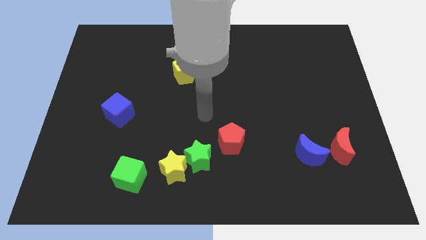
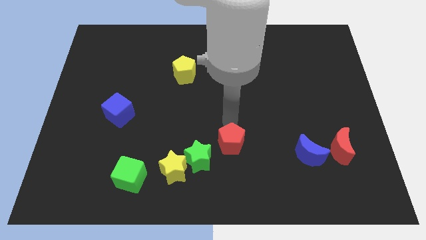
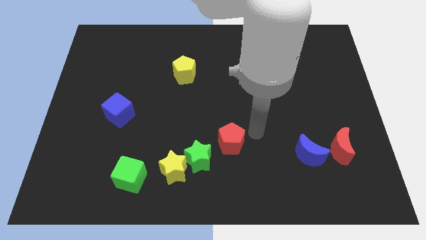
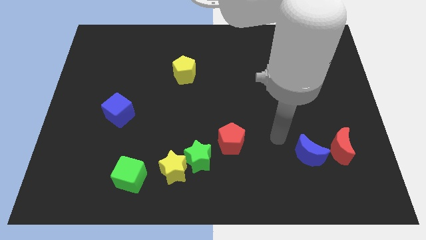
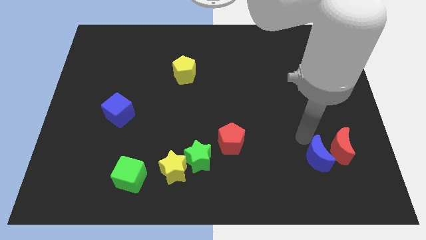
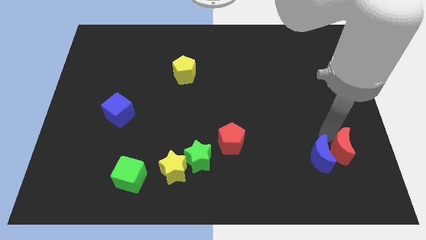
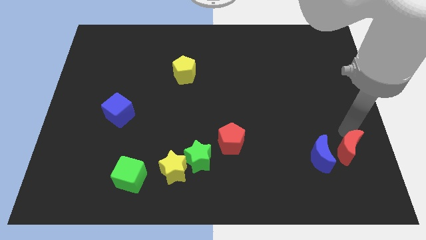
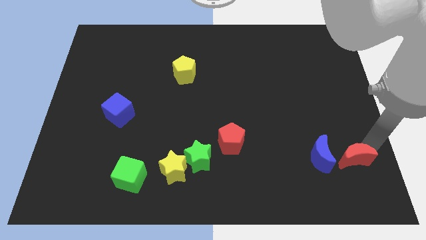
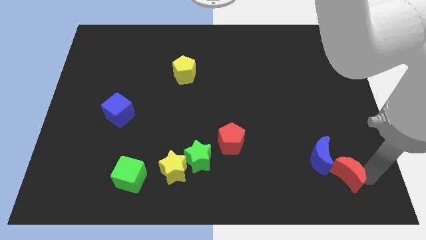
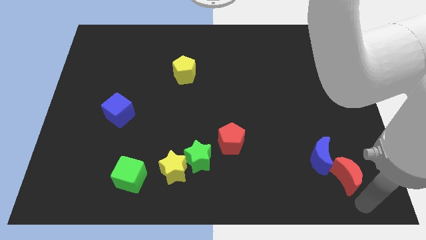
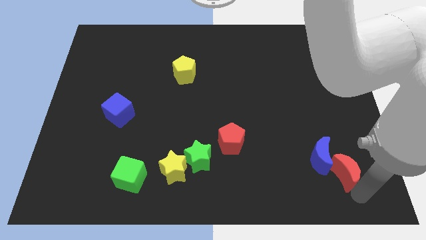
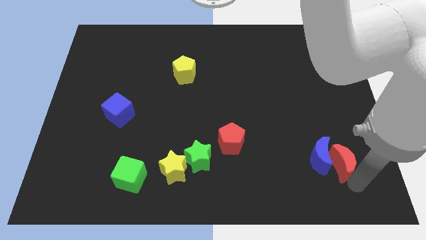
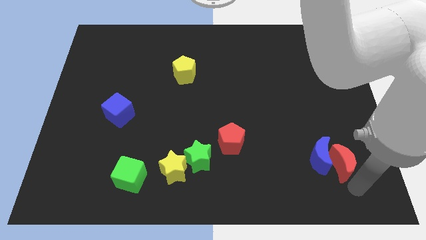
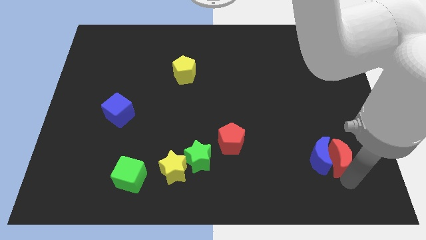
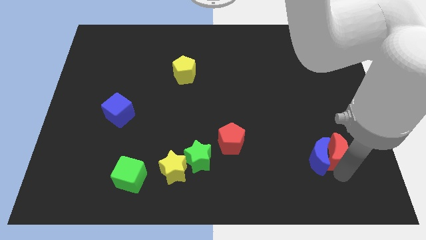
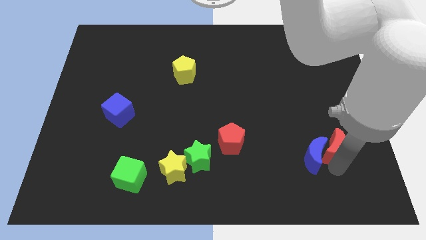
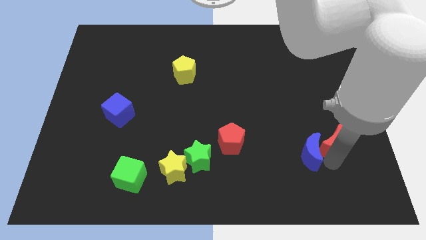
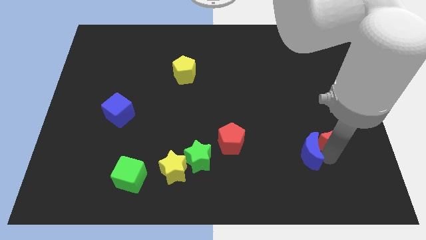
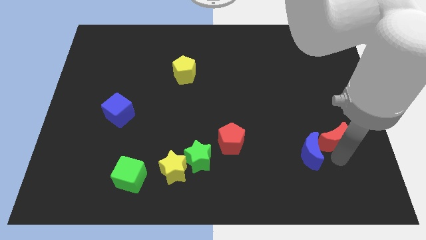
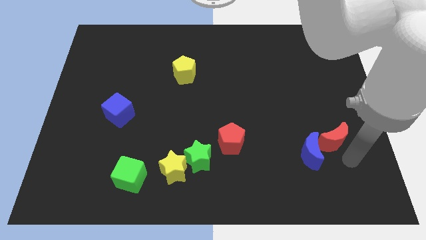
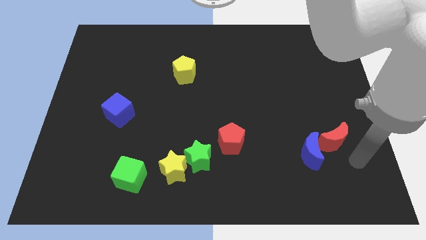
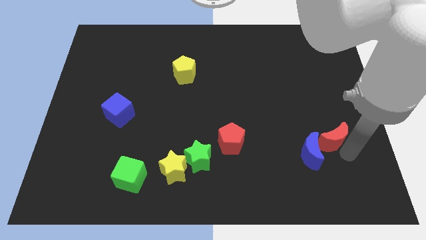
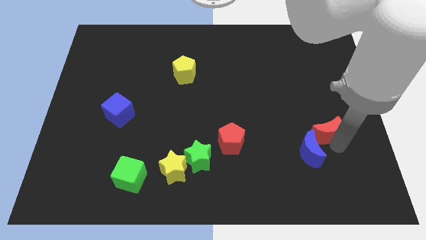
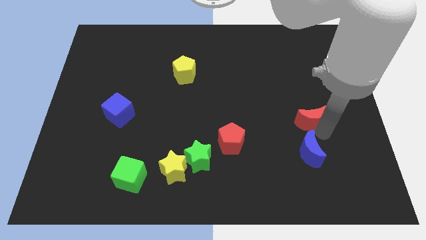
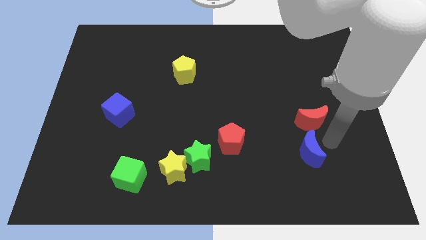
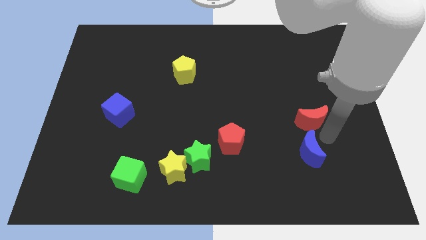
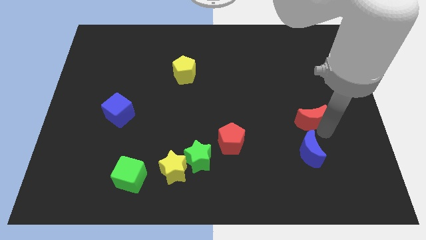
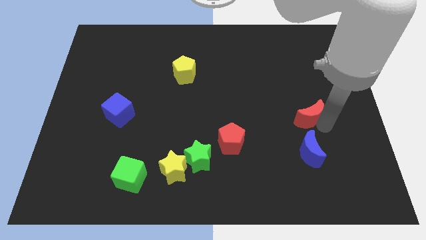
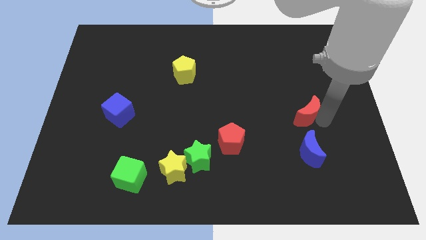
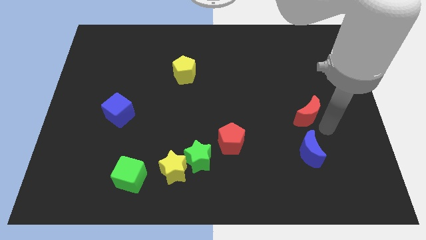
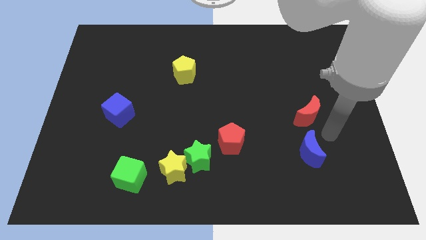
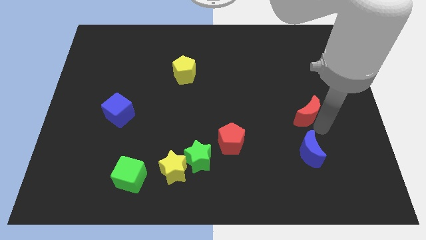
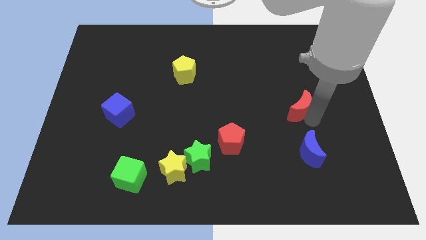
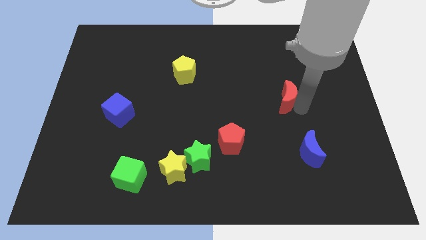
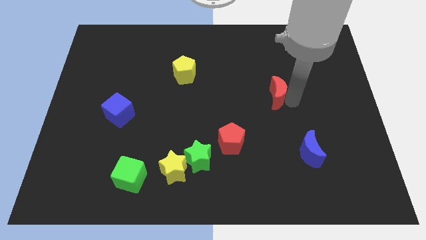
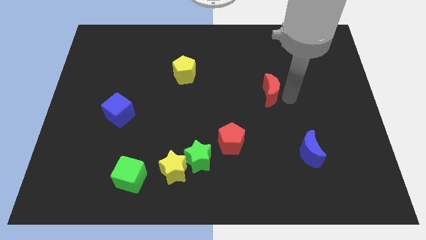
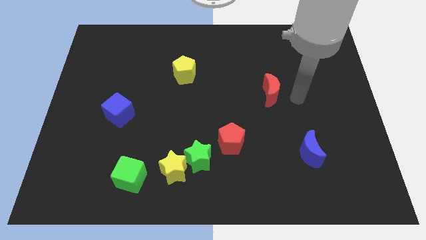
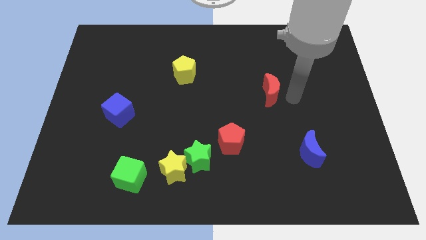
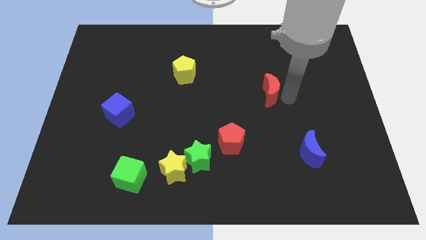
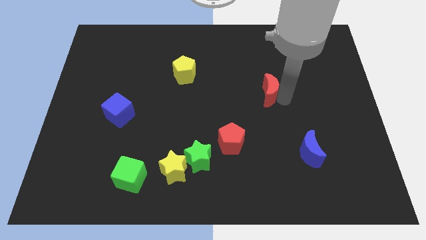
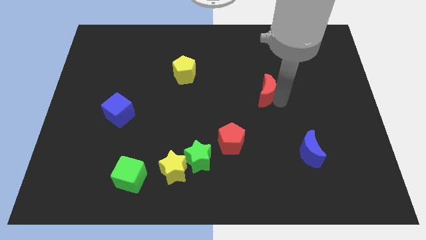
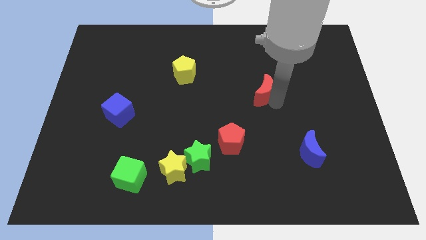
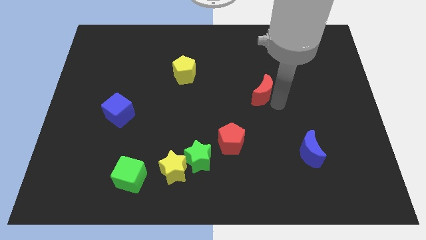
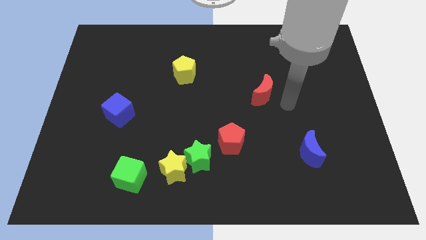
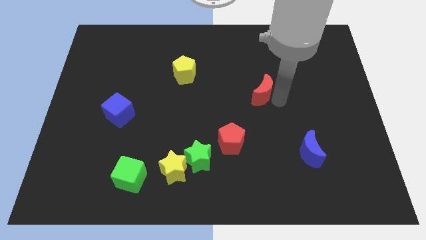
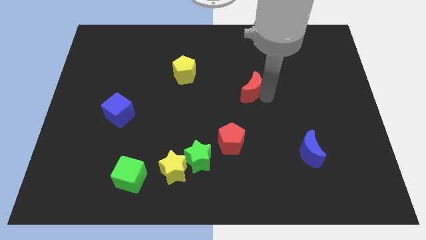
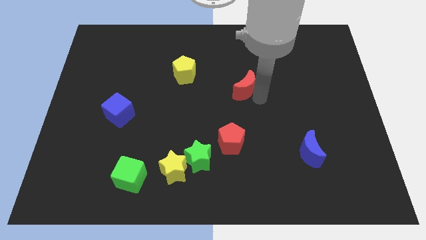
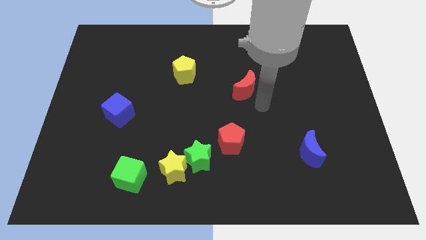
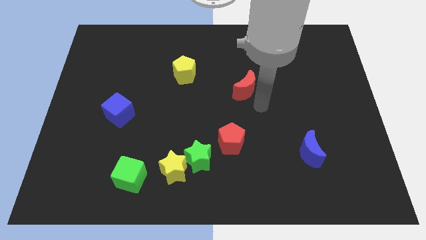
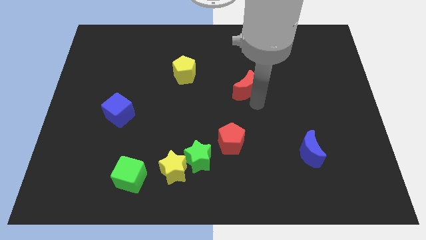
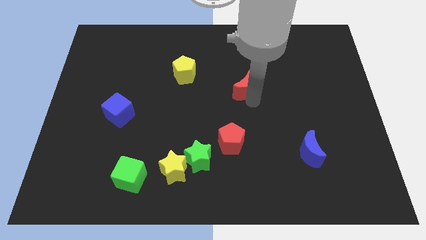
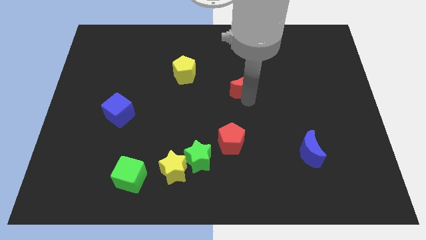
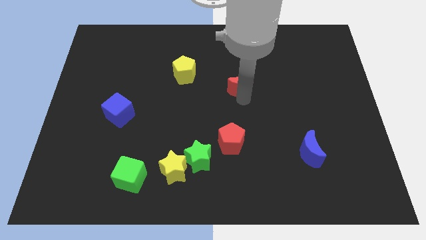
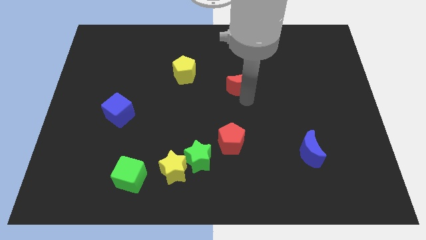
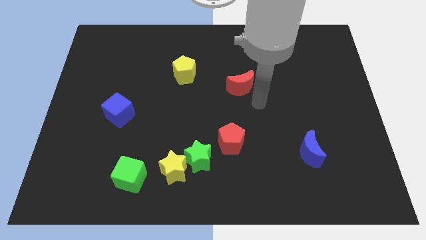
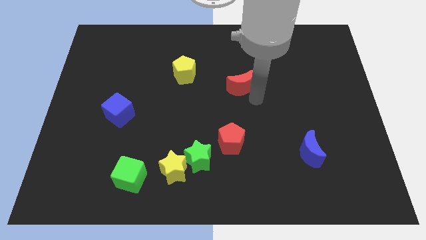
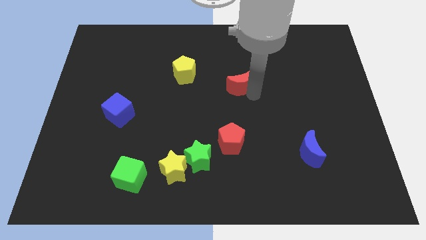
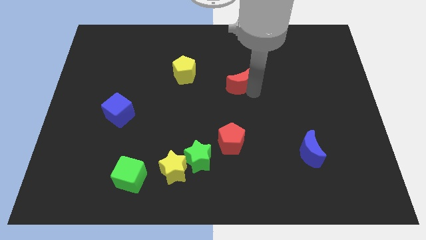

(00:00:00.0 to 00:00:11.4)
put the red moon to the right side of the yellow pentagon

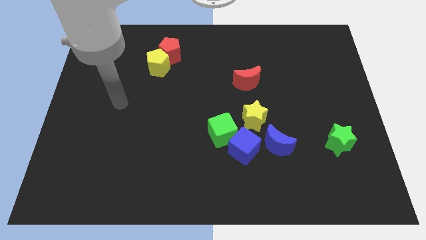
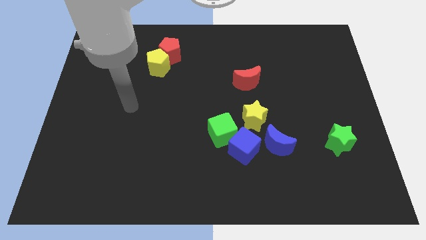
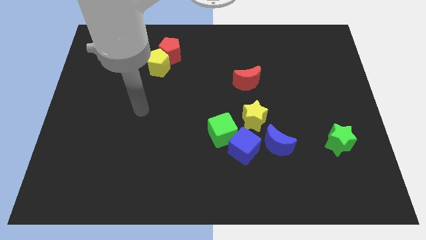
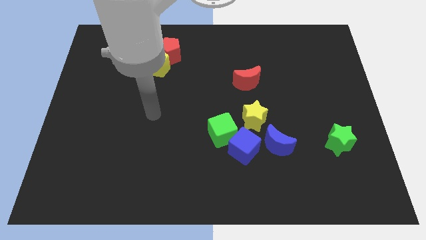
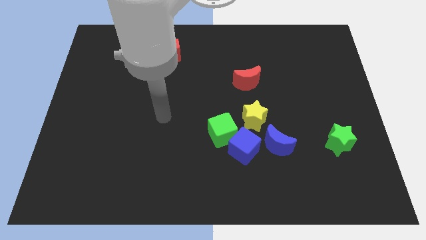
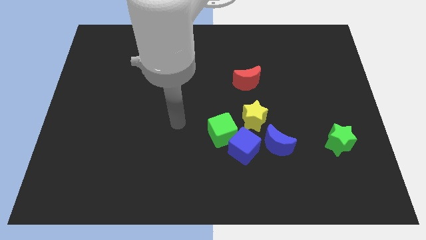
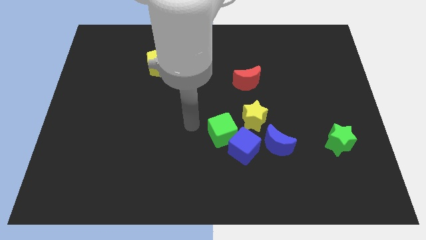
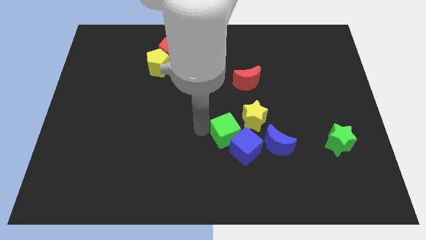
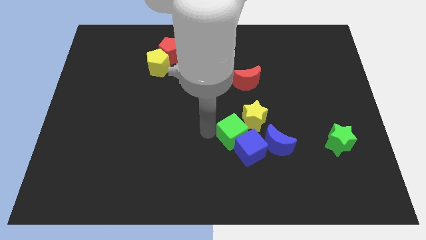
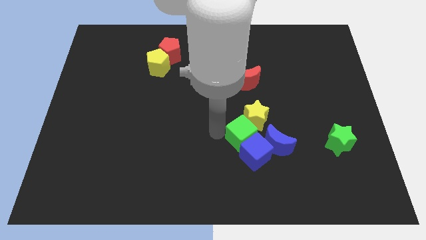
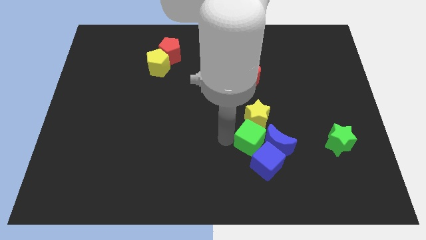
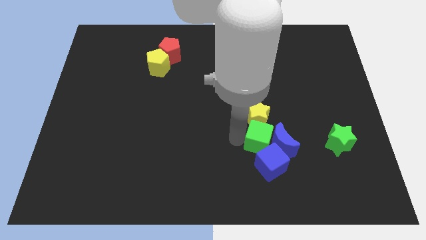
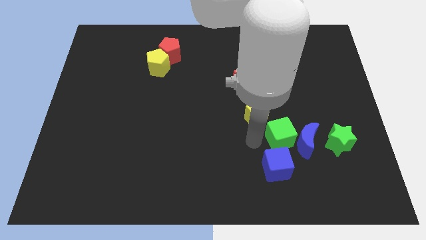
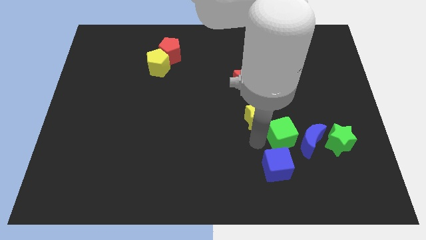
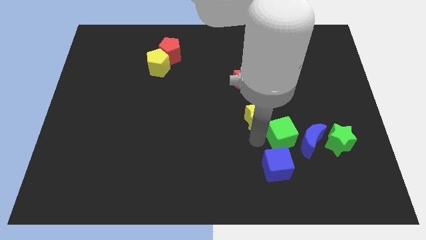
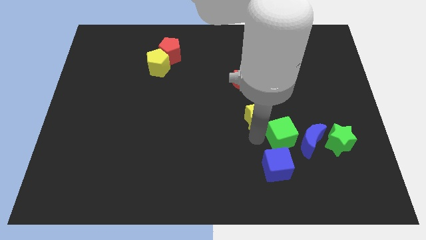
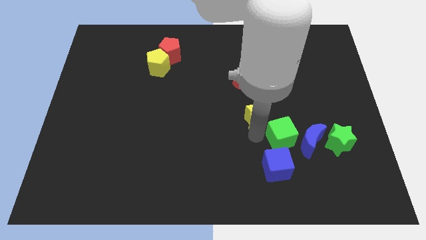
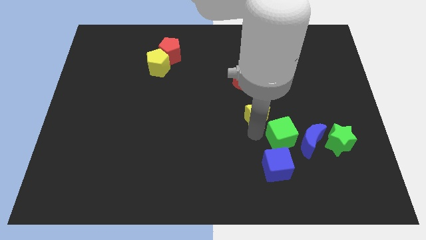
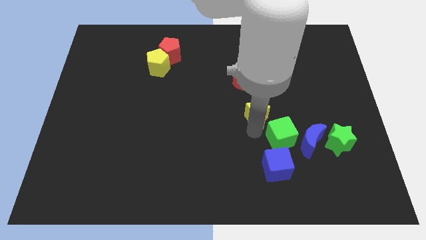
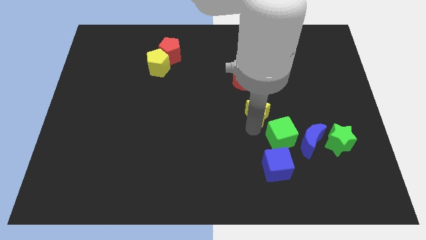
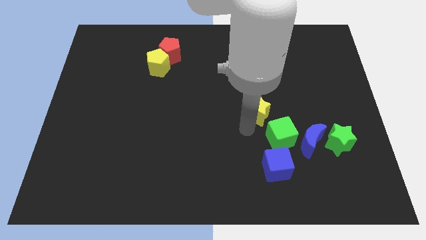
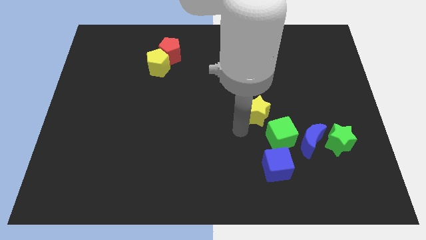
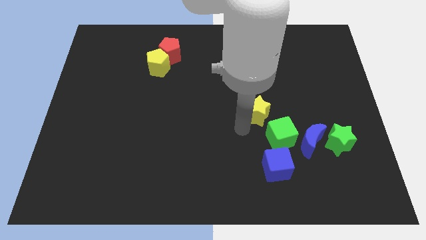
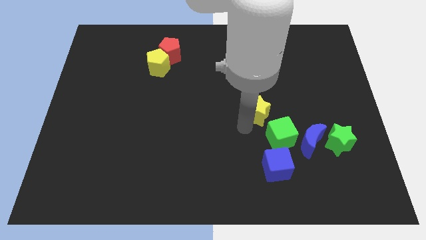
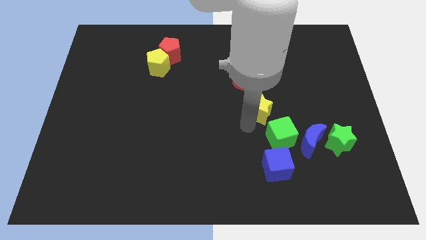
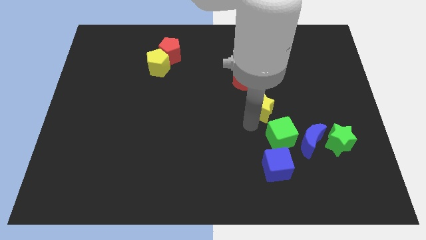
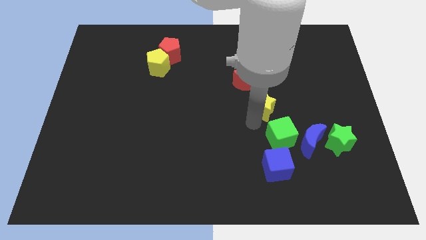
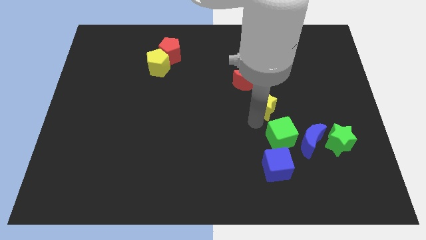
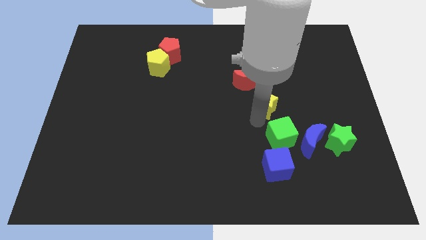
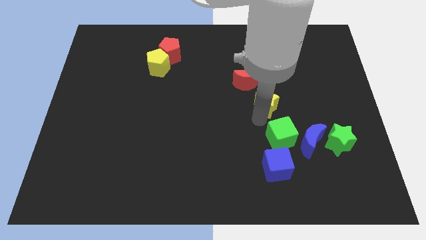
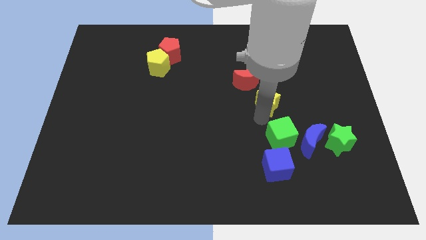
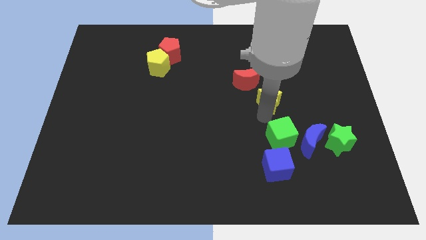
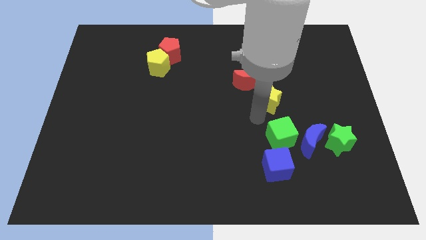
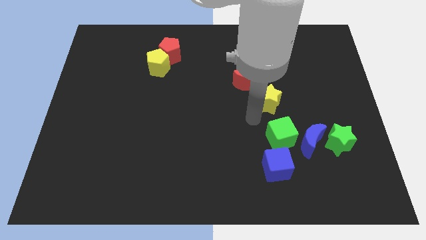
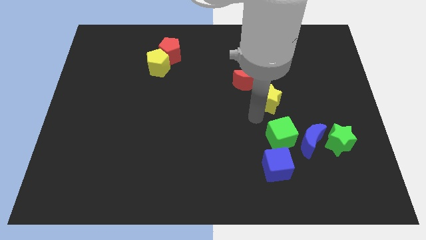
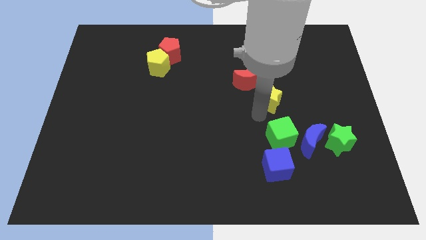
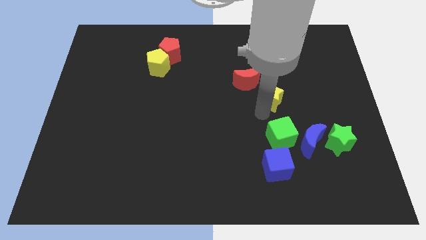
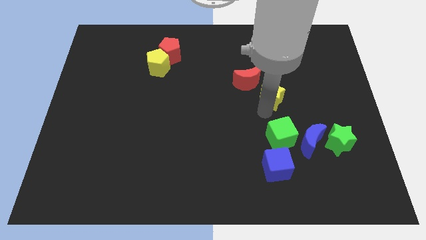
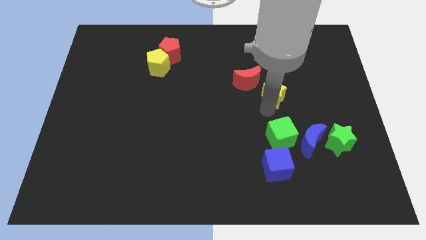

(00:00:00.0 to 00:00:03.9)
slide the yellow star to the right of the red moon
